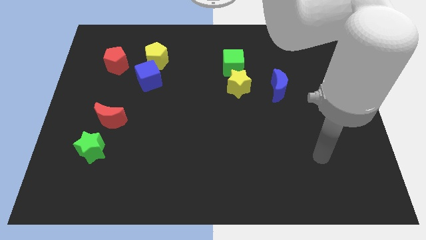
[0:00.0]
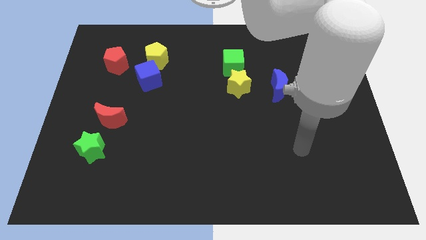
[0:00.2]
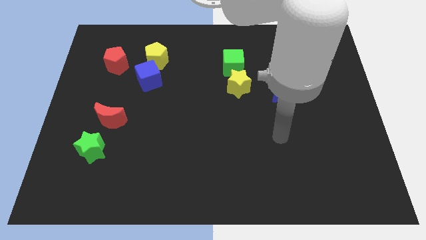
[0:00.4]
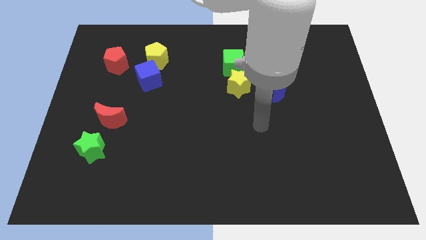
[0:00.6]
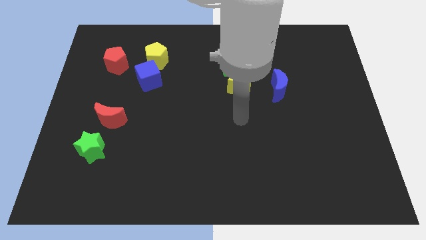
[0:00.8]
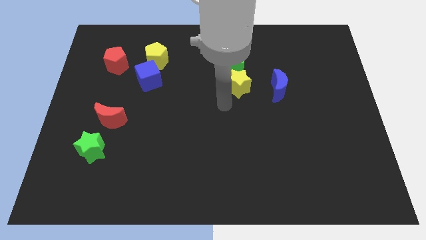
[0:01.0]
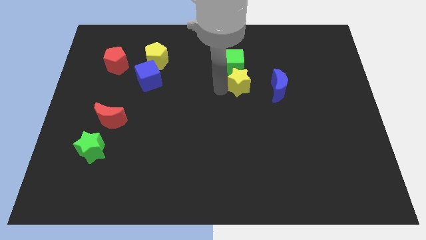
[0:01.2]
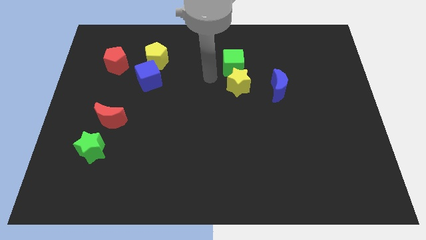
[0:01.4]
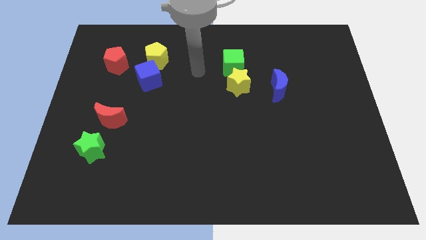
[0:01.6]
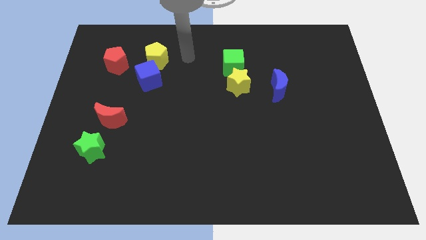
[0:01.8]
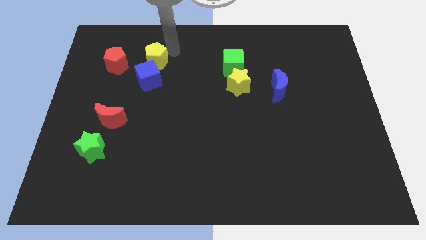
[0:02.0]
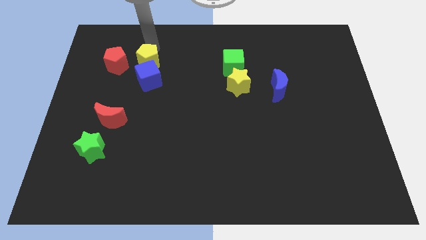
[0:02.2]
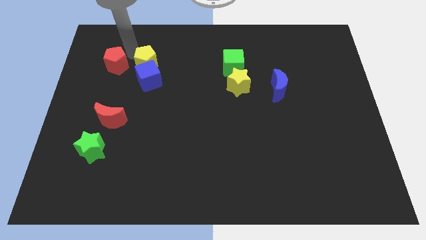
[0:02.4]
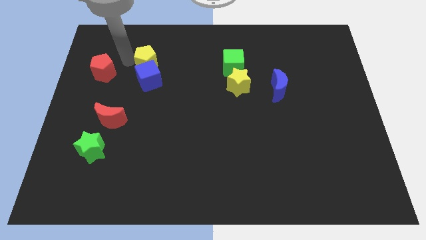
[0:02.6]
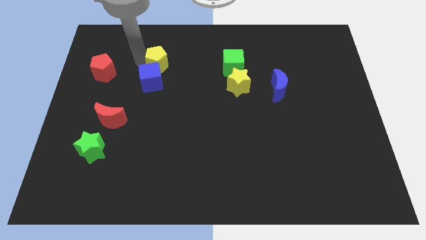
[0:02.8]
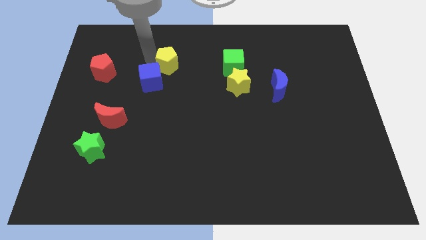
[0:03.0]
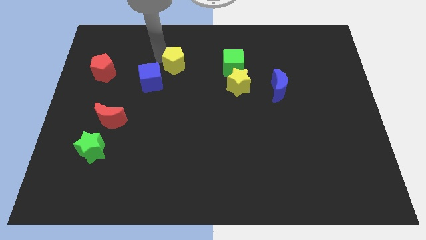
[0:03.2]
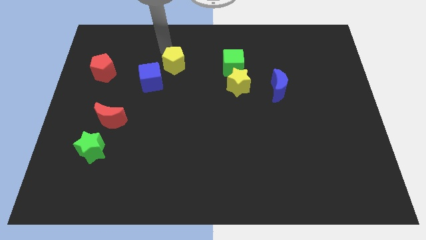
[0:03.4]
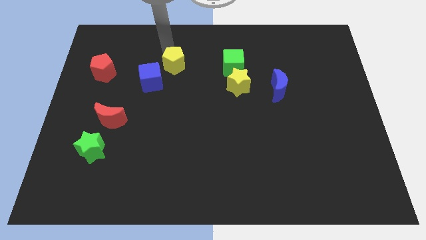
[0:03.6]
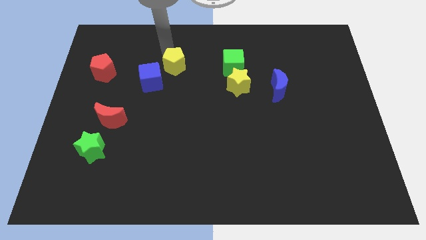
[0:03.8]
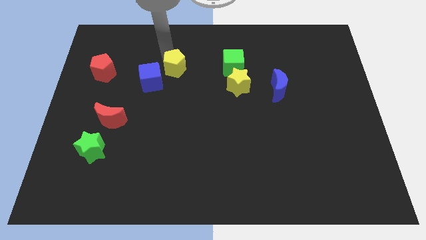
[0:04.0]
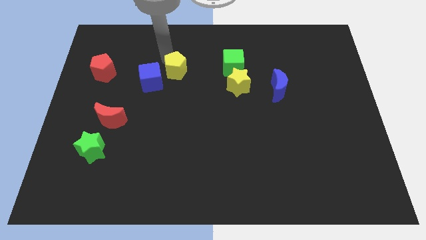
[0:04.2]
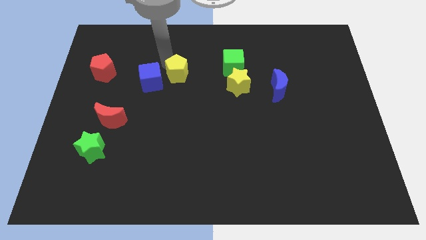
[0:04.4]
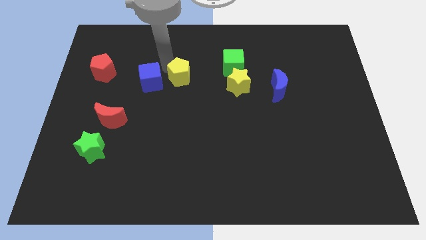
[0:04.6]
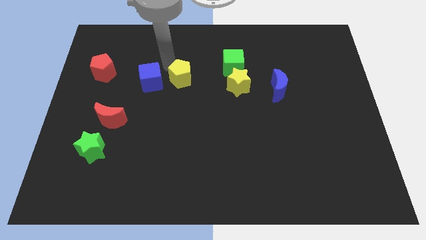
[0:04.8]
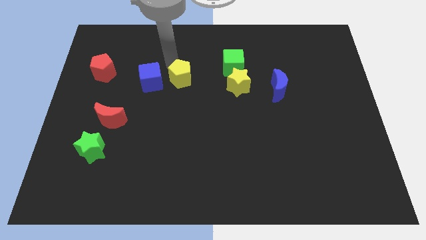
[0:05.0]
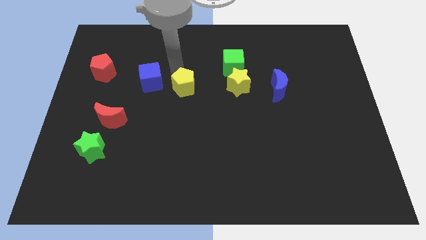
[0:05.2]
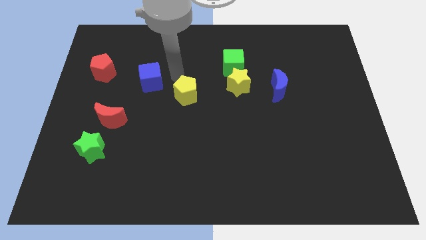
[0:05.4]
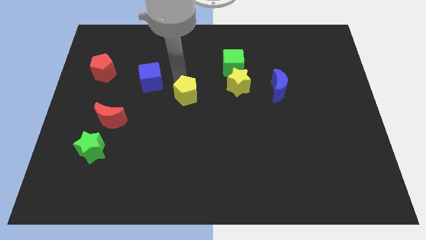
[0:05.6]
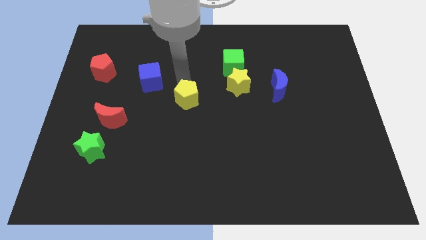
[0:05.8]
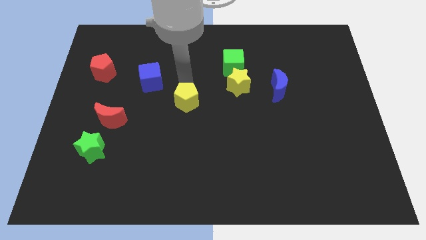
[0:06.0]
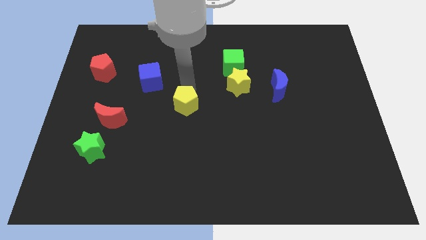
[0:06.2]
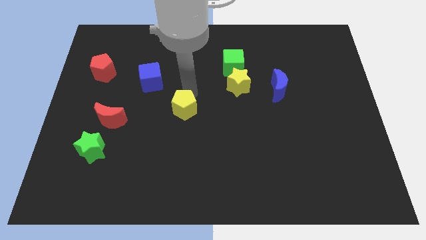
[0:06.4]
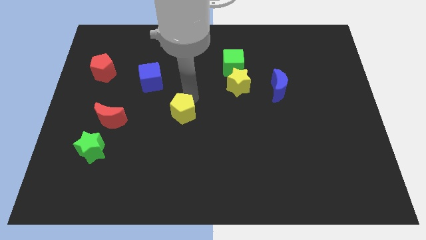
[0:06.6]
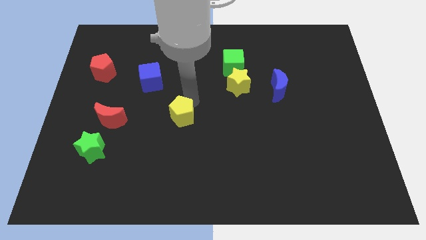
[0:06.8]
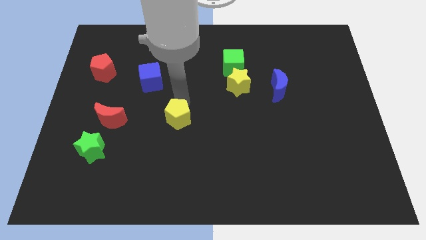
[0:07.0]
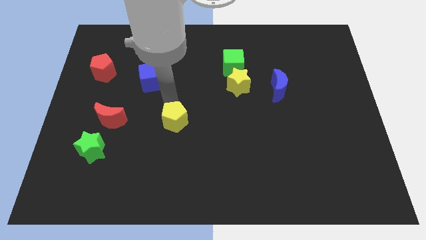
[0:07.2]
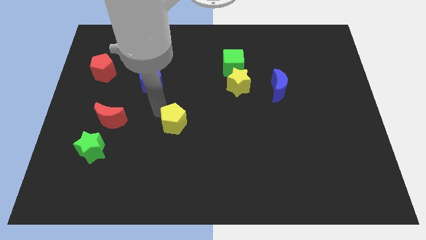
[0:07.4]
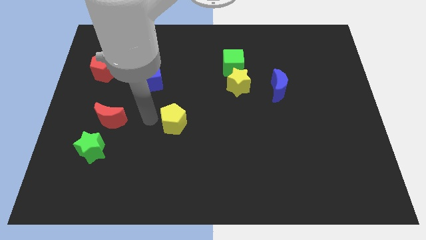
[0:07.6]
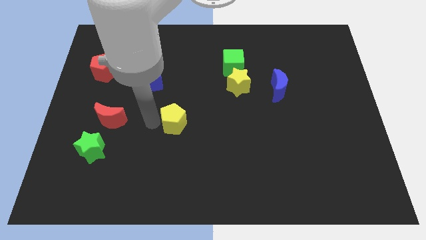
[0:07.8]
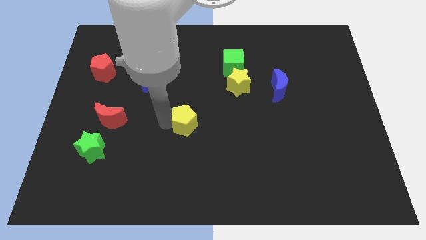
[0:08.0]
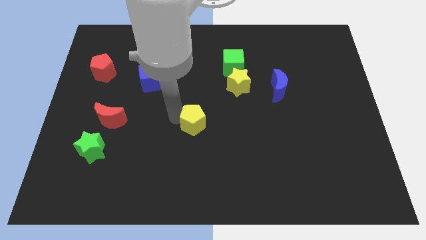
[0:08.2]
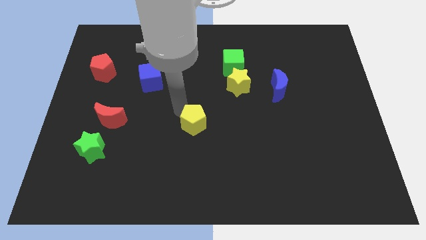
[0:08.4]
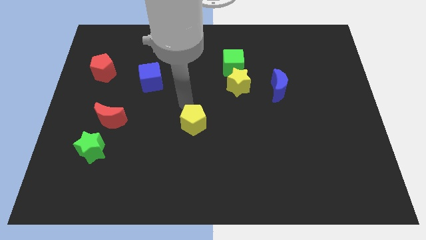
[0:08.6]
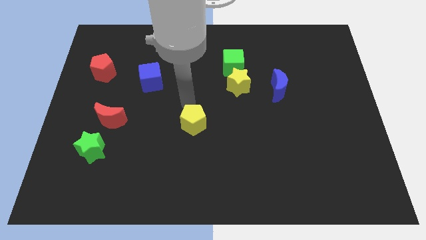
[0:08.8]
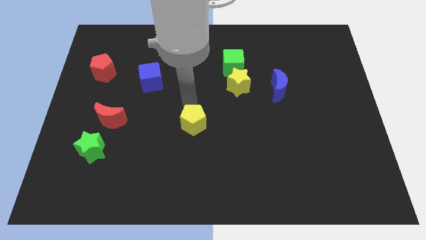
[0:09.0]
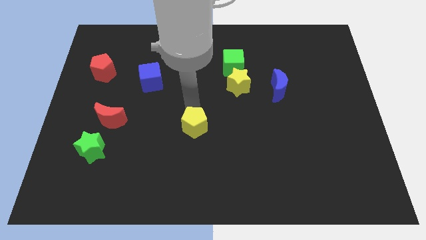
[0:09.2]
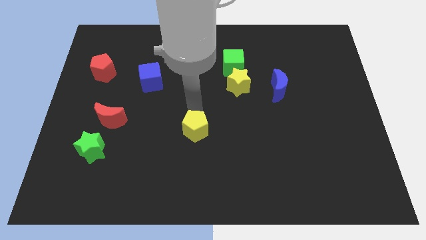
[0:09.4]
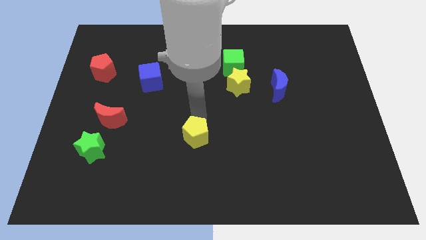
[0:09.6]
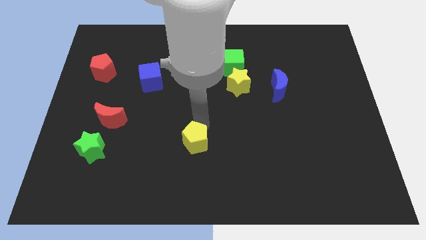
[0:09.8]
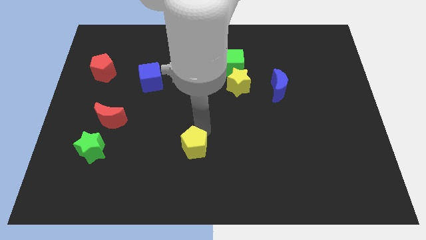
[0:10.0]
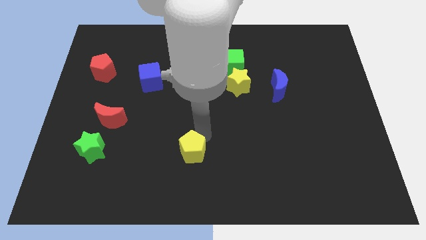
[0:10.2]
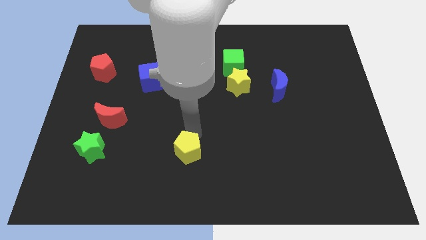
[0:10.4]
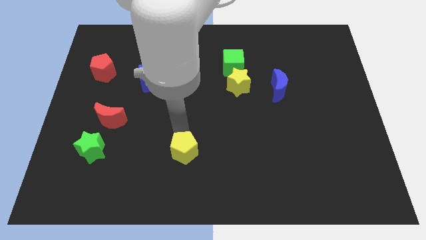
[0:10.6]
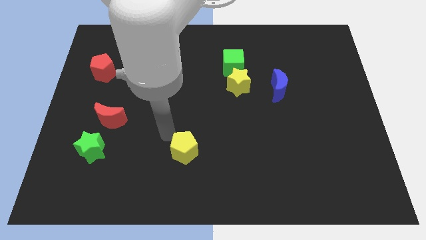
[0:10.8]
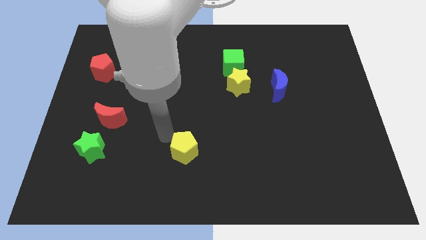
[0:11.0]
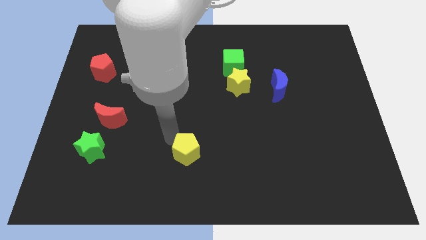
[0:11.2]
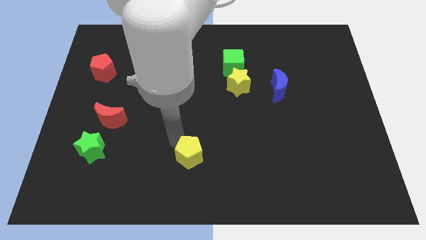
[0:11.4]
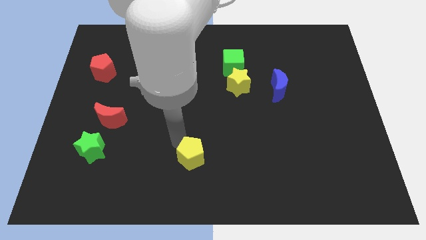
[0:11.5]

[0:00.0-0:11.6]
move the yellow pentagon to the bottom side

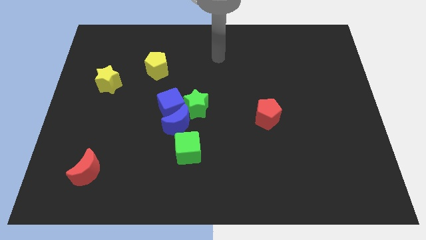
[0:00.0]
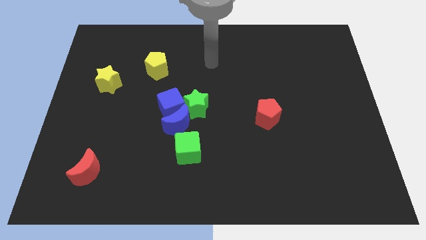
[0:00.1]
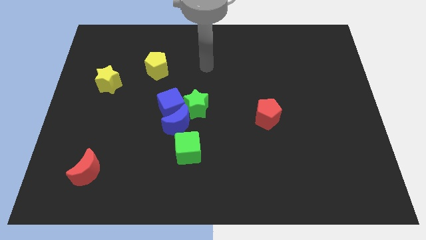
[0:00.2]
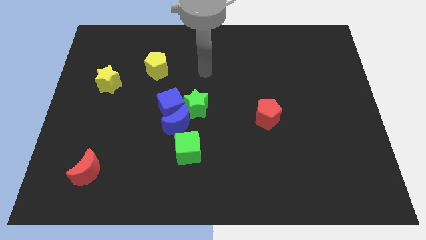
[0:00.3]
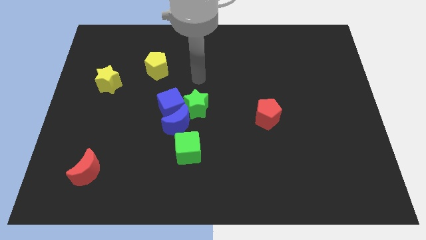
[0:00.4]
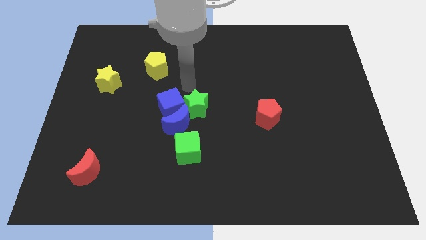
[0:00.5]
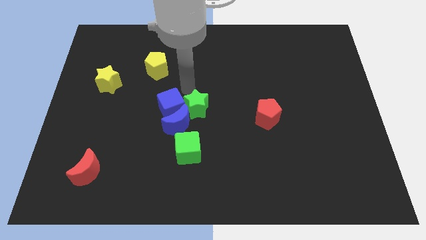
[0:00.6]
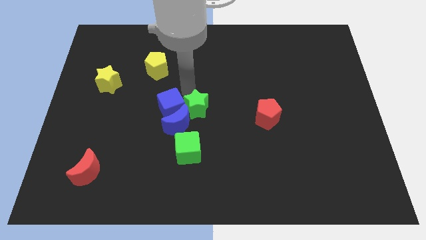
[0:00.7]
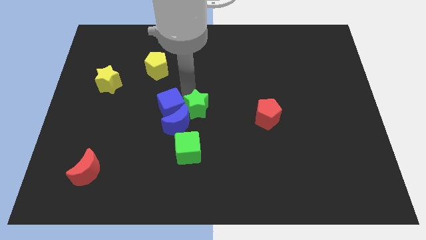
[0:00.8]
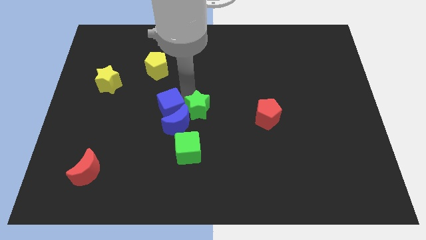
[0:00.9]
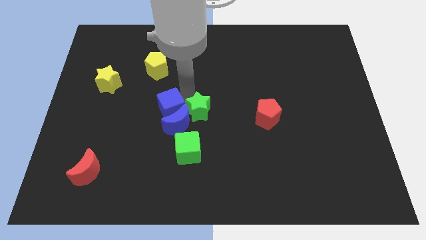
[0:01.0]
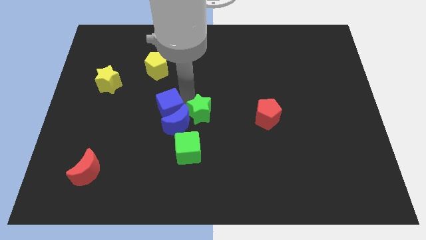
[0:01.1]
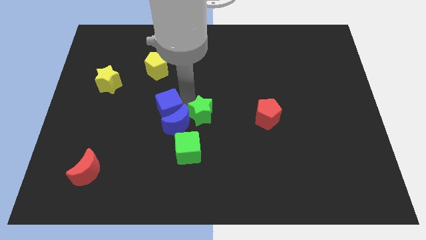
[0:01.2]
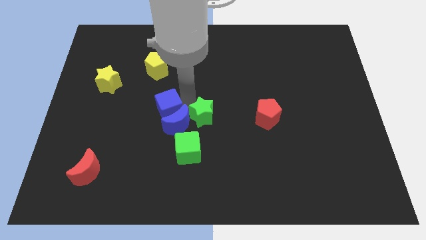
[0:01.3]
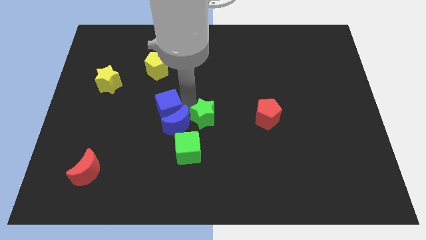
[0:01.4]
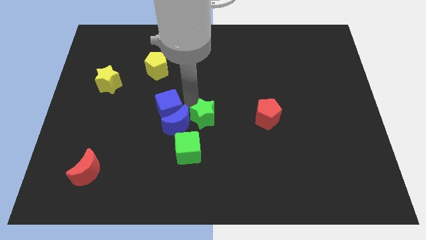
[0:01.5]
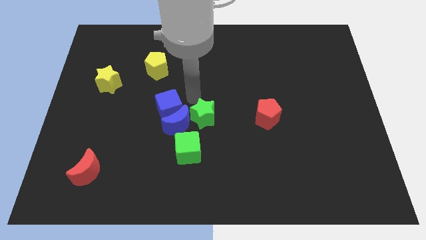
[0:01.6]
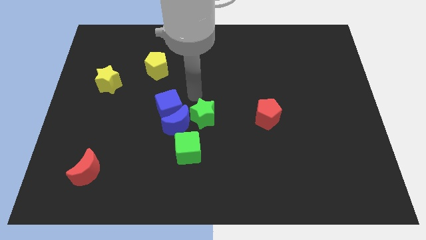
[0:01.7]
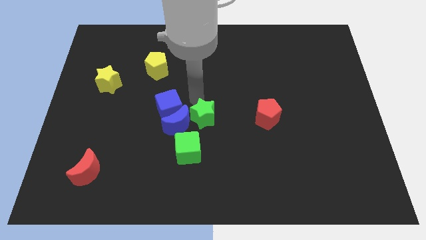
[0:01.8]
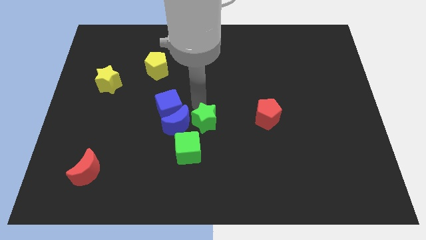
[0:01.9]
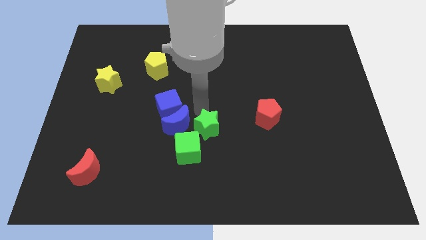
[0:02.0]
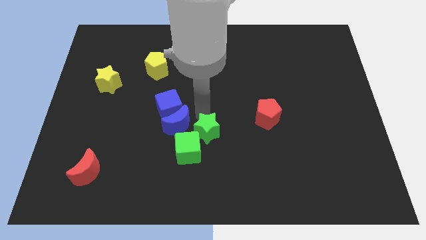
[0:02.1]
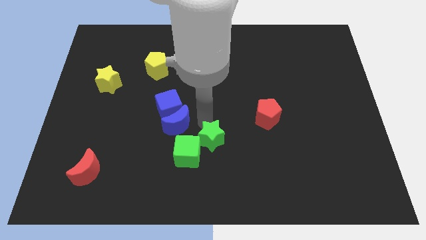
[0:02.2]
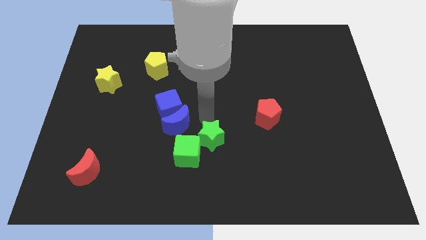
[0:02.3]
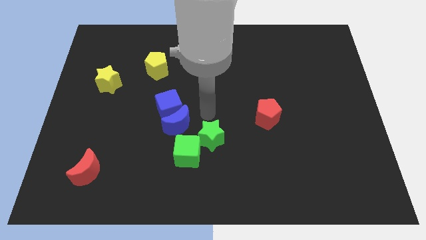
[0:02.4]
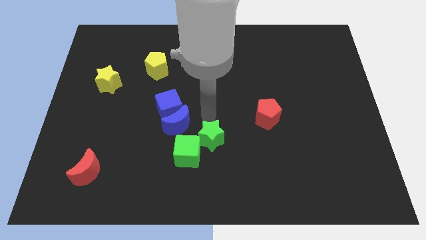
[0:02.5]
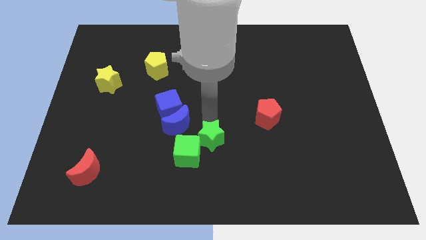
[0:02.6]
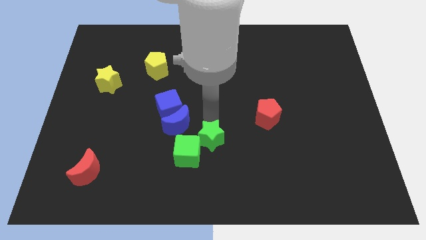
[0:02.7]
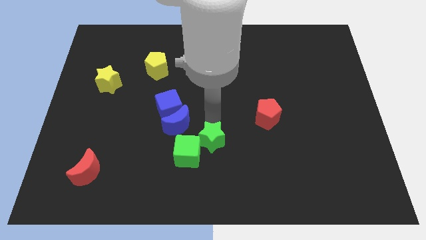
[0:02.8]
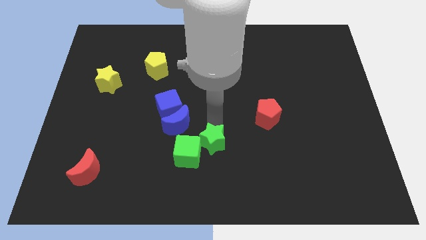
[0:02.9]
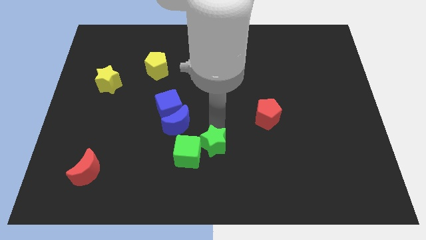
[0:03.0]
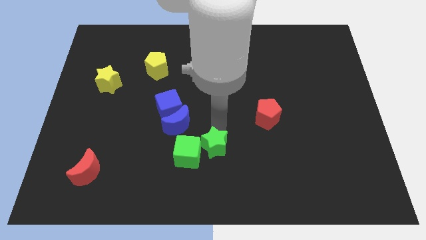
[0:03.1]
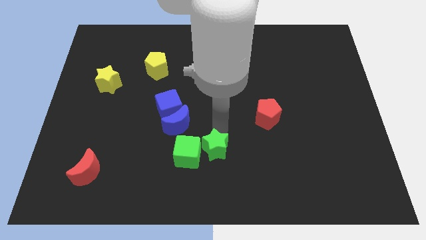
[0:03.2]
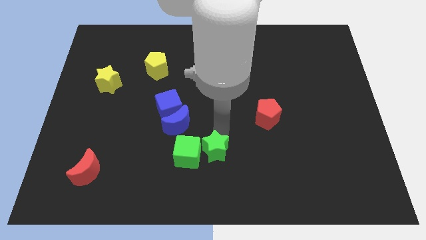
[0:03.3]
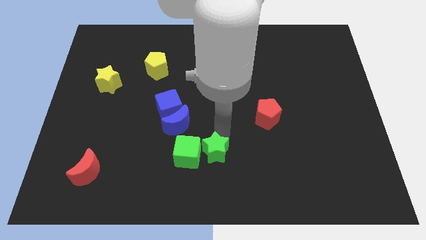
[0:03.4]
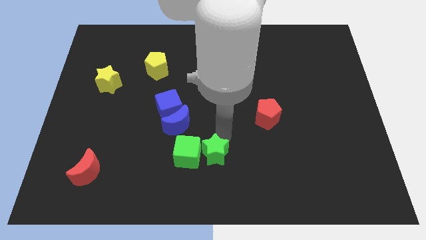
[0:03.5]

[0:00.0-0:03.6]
slide the green star to the bottom side
